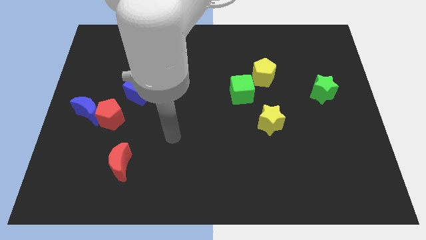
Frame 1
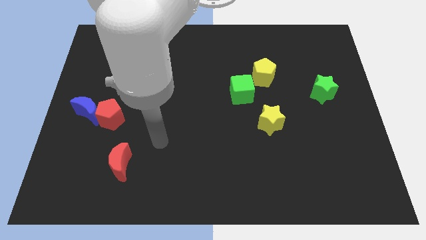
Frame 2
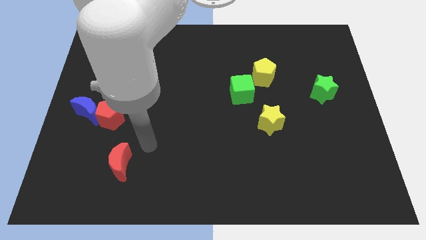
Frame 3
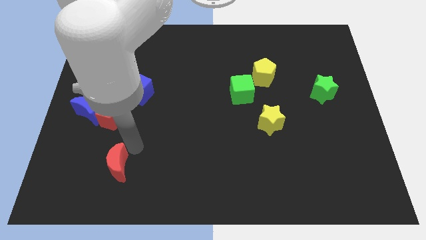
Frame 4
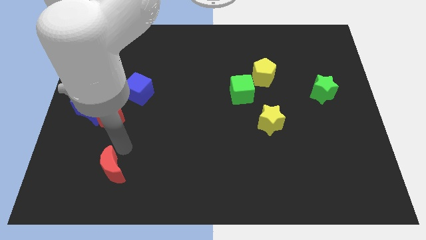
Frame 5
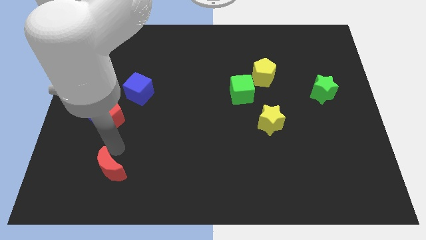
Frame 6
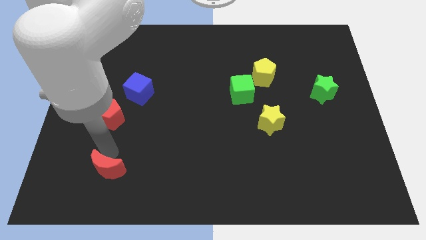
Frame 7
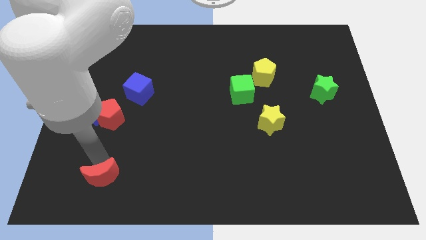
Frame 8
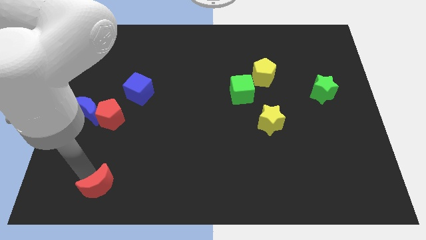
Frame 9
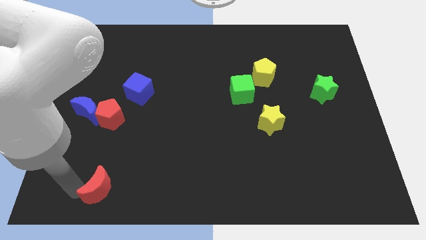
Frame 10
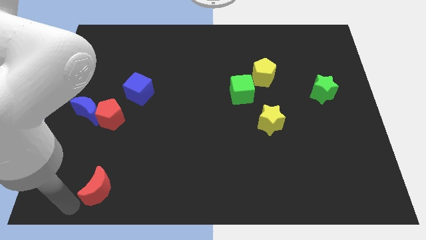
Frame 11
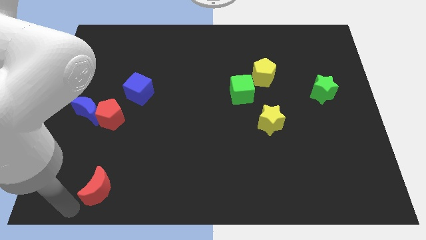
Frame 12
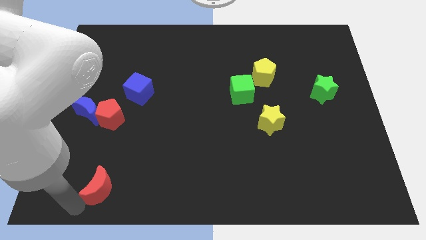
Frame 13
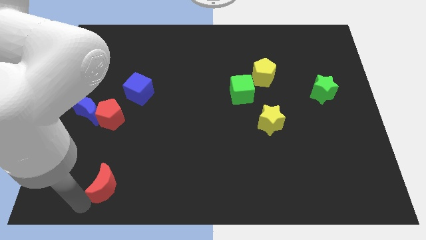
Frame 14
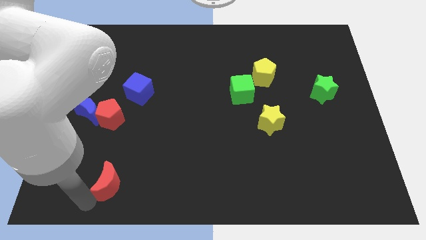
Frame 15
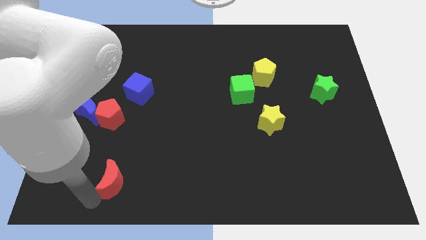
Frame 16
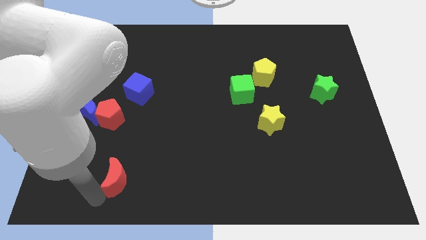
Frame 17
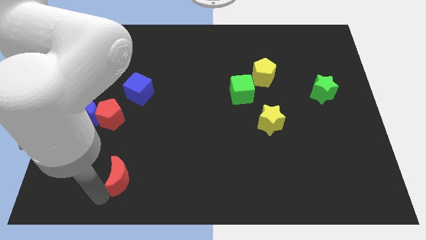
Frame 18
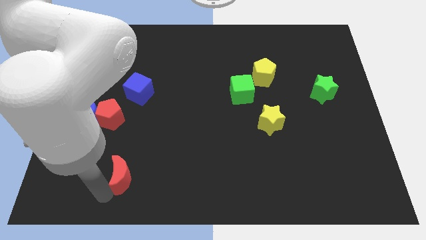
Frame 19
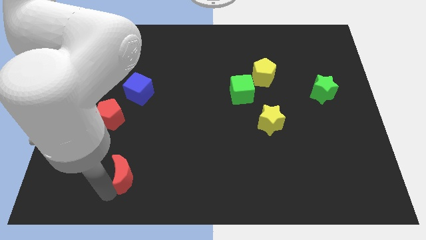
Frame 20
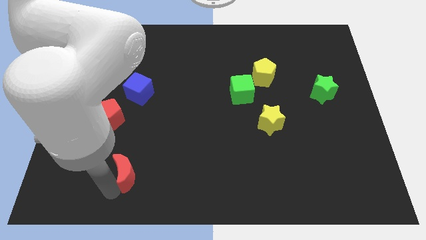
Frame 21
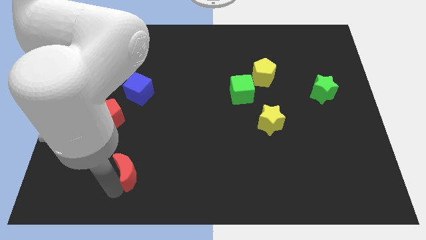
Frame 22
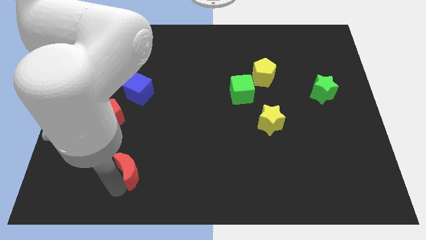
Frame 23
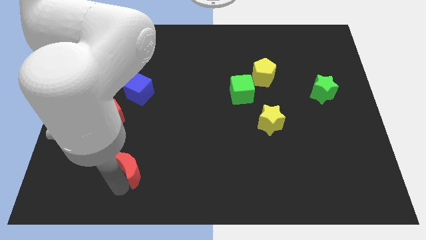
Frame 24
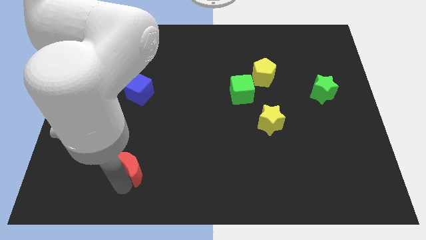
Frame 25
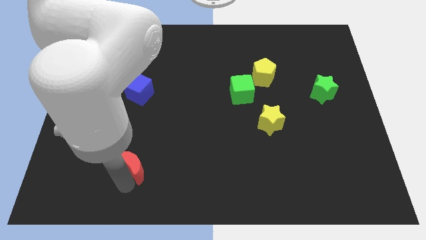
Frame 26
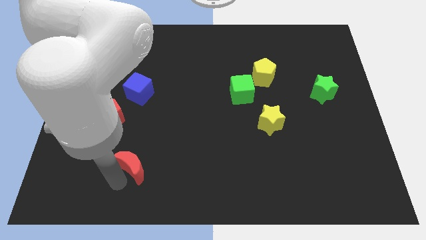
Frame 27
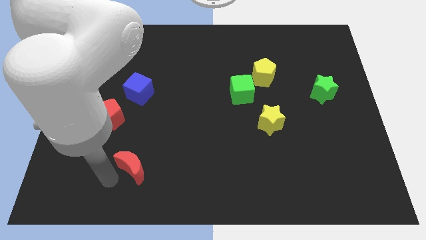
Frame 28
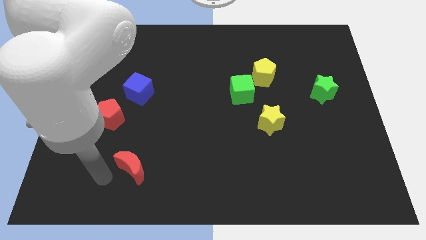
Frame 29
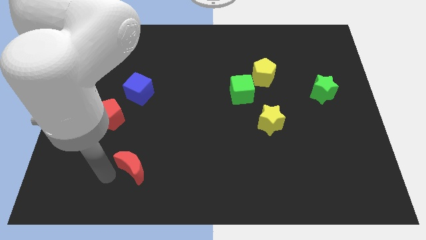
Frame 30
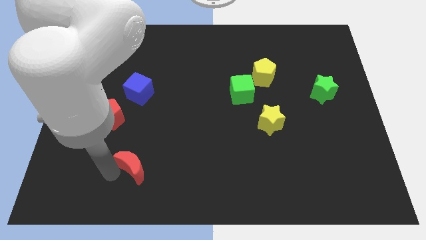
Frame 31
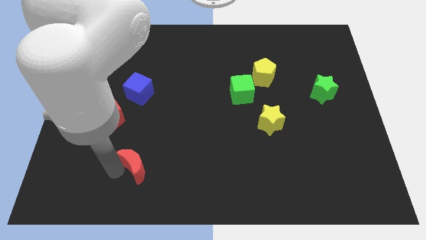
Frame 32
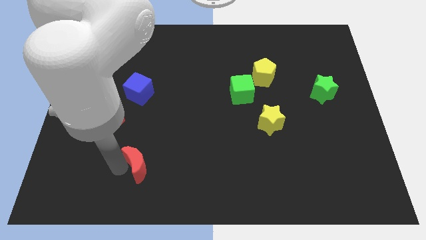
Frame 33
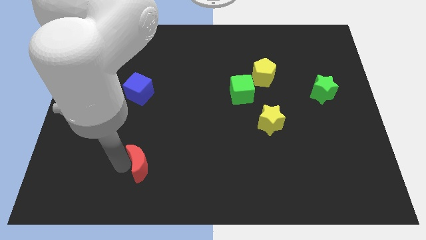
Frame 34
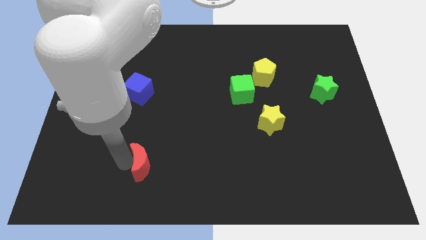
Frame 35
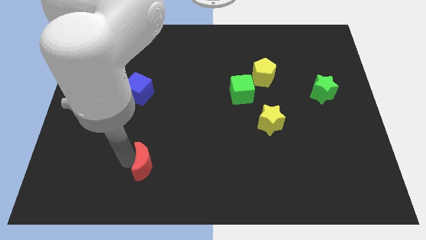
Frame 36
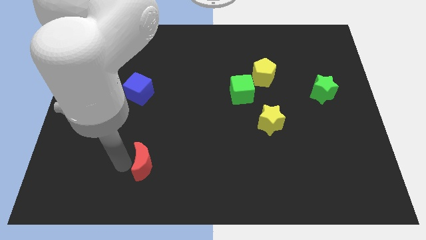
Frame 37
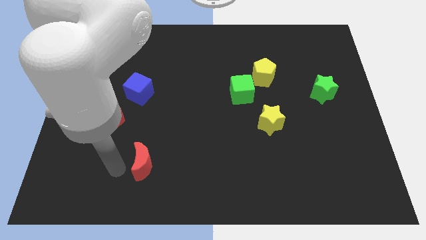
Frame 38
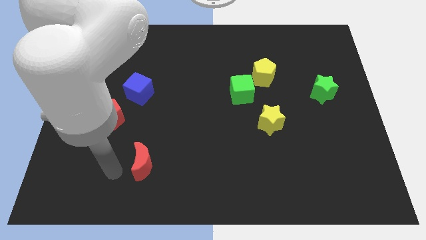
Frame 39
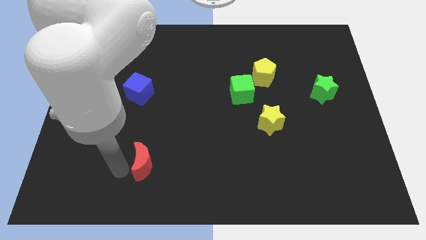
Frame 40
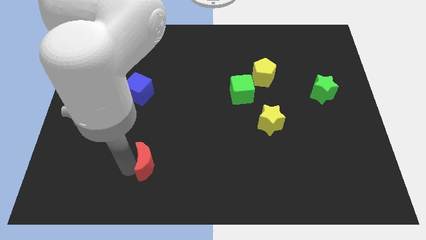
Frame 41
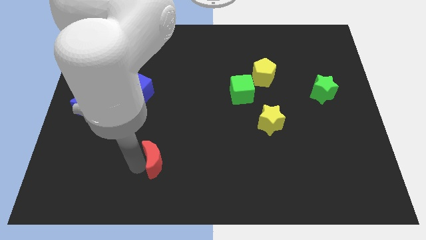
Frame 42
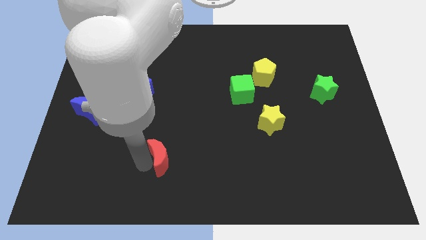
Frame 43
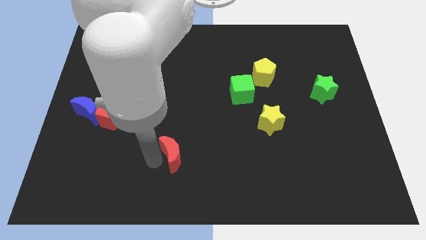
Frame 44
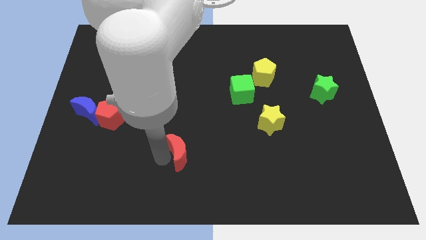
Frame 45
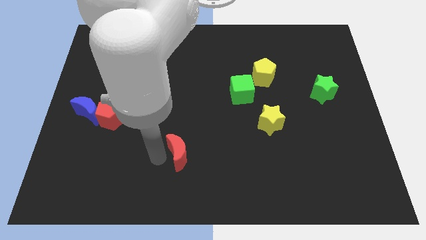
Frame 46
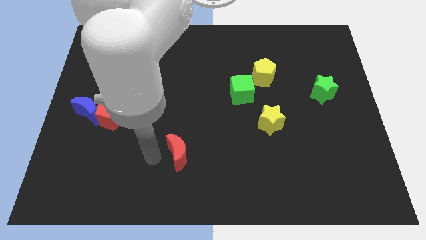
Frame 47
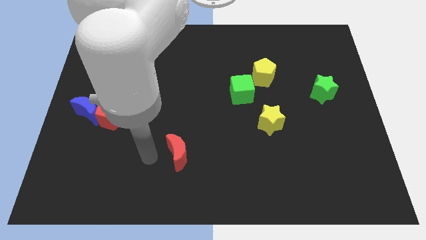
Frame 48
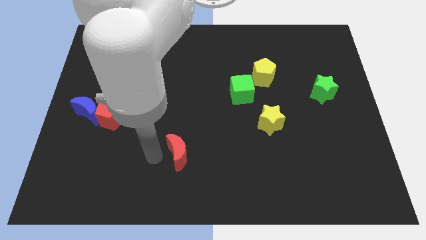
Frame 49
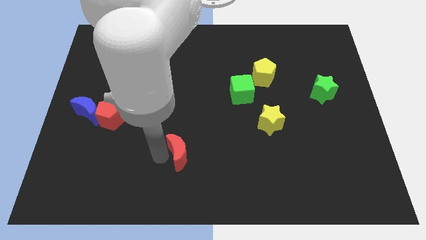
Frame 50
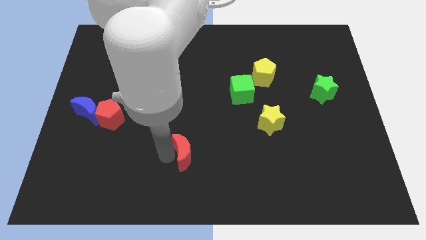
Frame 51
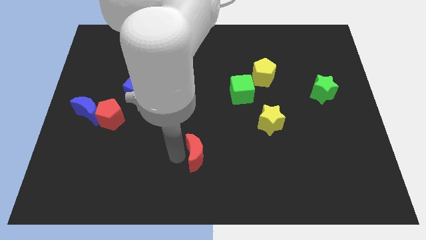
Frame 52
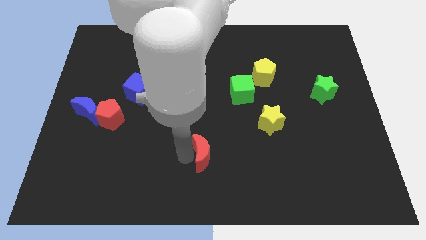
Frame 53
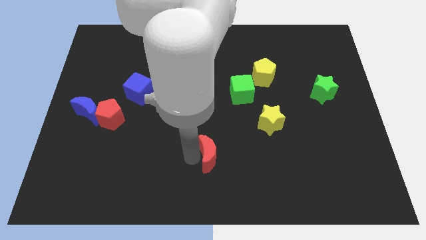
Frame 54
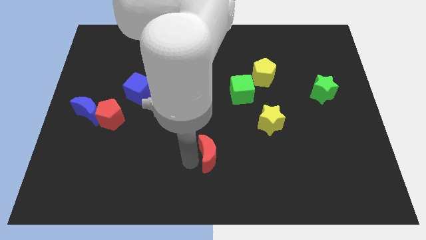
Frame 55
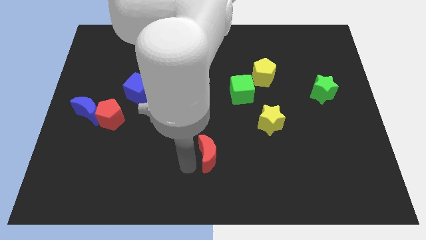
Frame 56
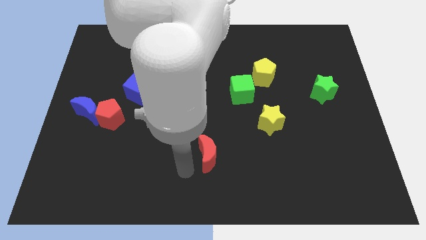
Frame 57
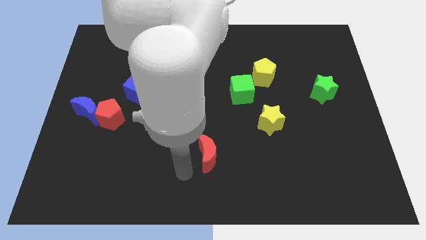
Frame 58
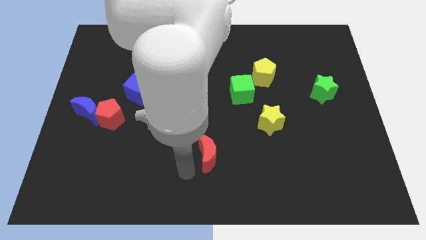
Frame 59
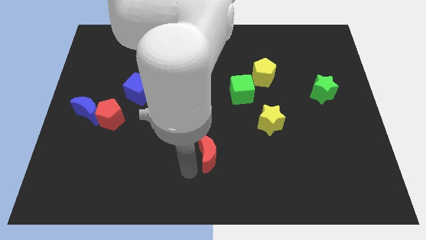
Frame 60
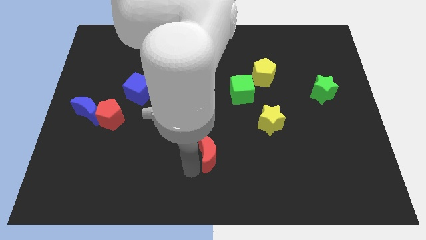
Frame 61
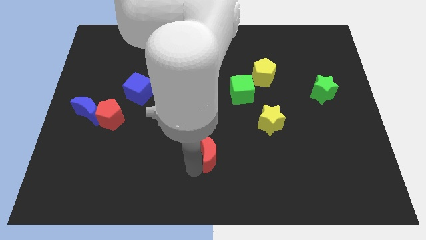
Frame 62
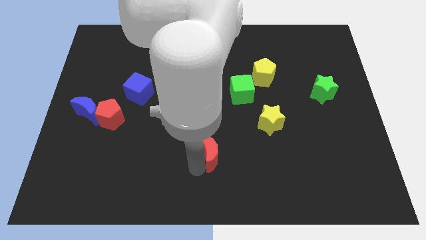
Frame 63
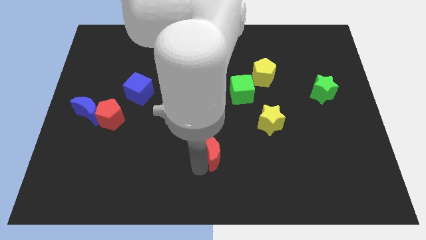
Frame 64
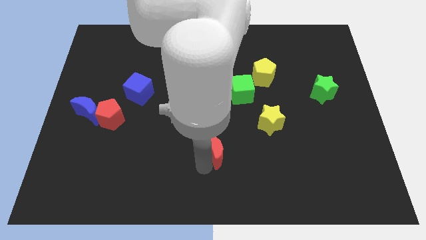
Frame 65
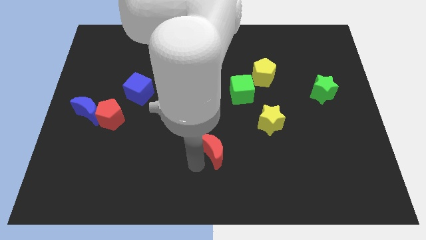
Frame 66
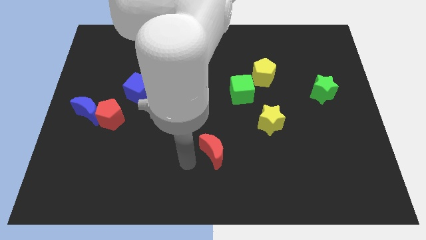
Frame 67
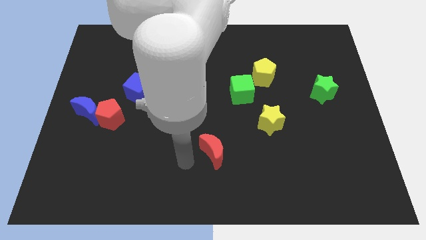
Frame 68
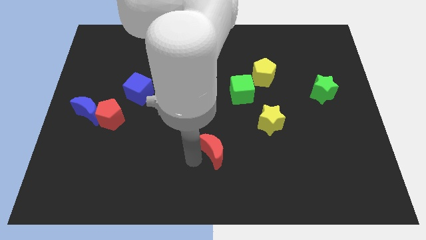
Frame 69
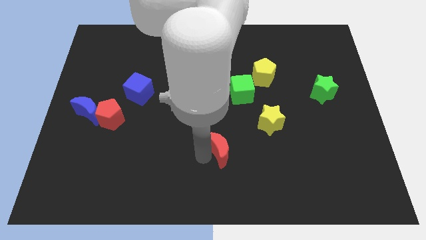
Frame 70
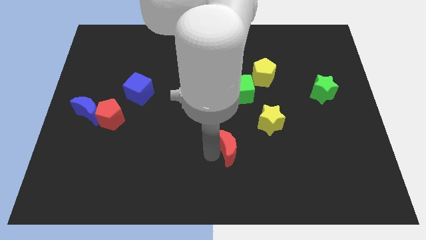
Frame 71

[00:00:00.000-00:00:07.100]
move the red moon diagonally down and to the left of the yellow star

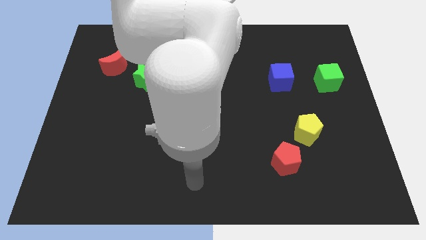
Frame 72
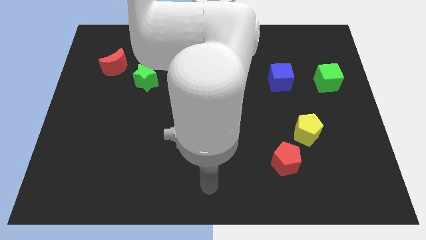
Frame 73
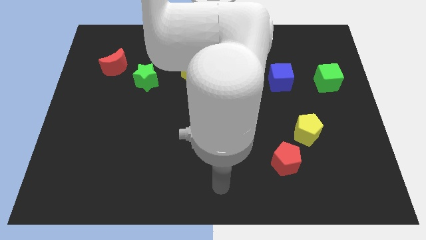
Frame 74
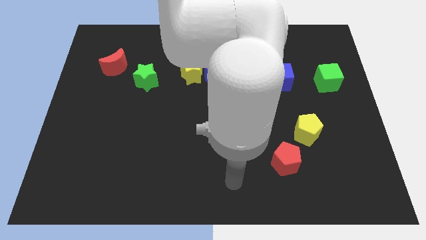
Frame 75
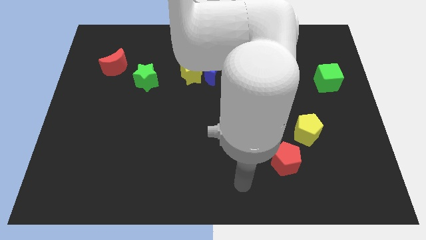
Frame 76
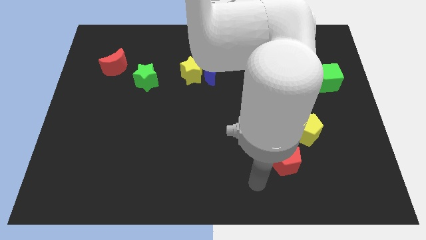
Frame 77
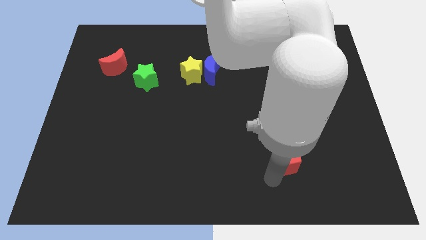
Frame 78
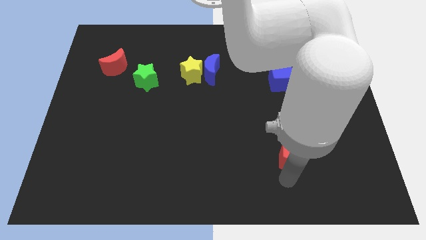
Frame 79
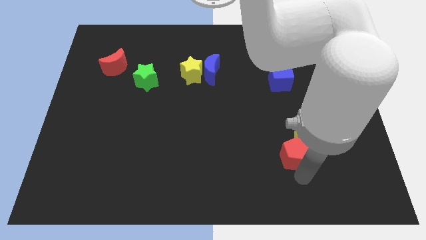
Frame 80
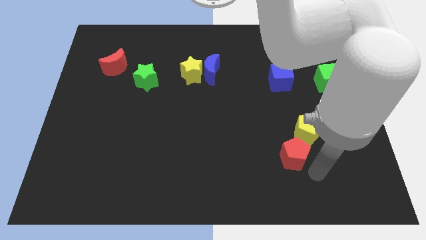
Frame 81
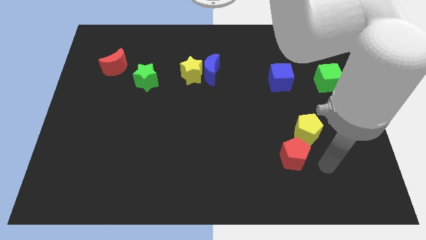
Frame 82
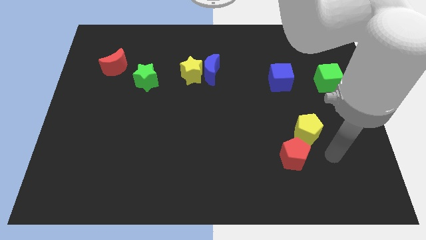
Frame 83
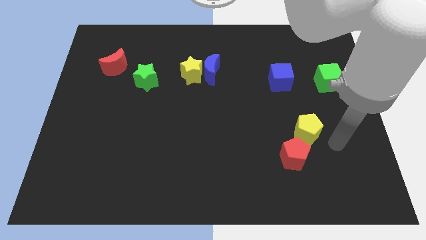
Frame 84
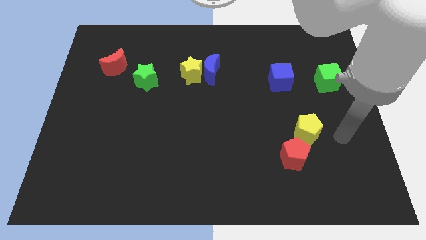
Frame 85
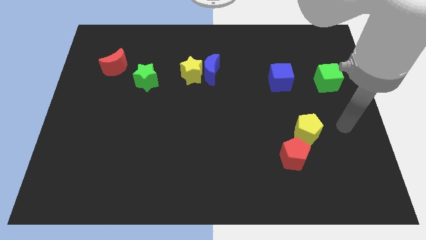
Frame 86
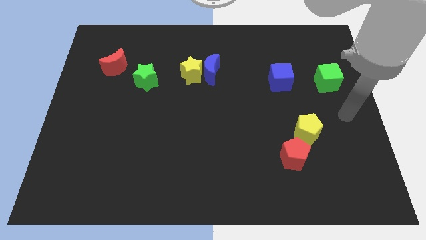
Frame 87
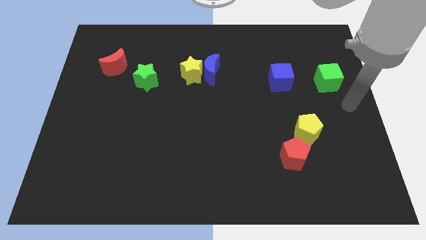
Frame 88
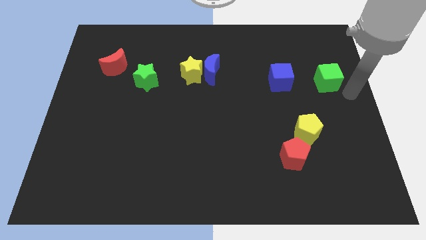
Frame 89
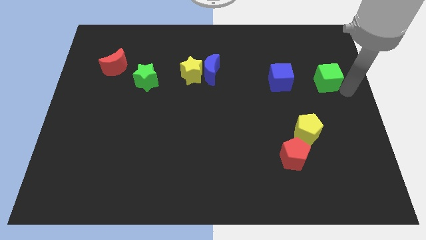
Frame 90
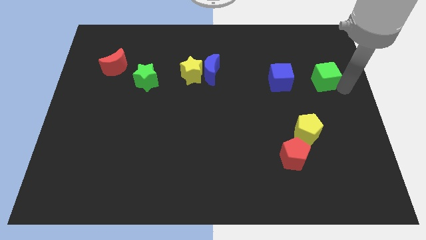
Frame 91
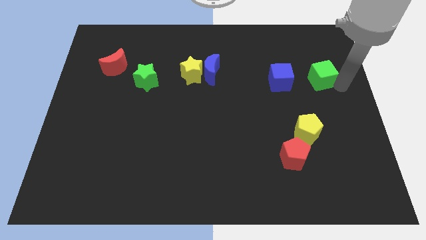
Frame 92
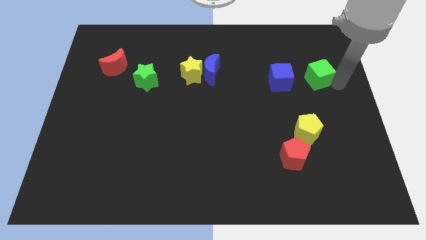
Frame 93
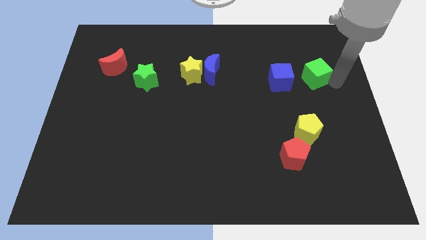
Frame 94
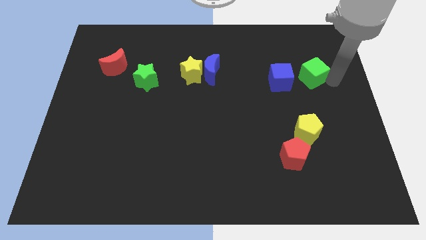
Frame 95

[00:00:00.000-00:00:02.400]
slide the green cube to the top right of the blue cube
